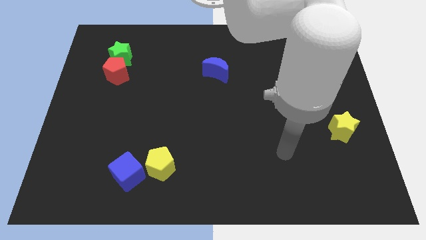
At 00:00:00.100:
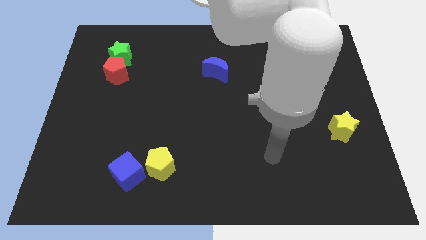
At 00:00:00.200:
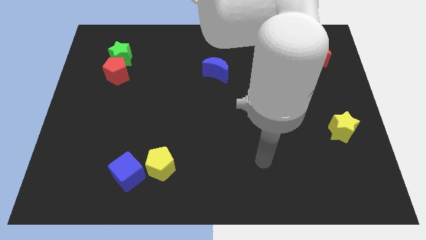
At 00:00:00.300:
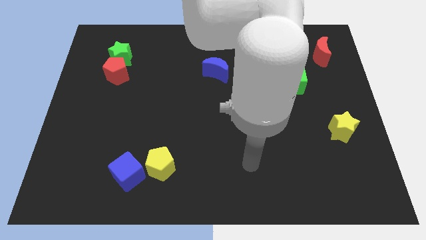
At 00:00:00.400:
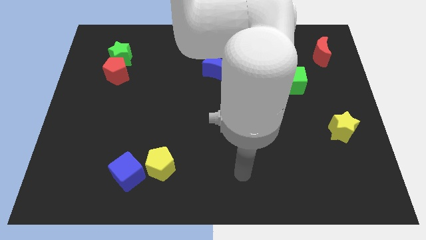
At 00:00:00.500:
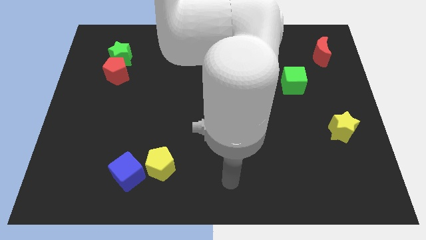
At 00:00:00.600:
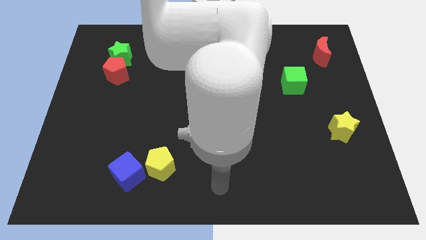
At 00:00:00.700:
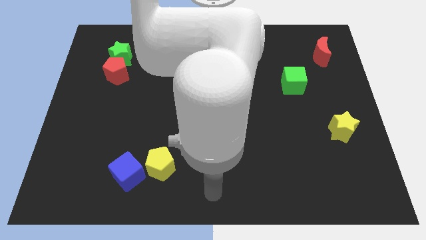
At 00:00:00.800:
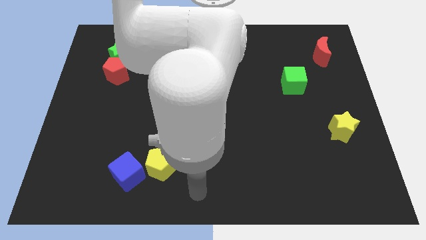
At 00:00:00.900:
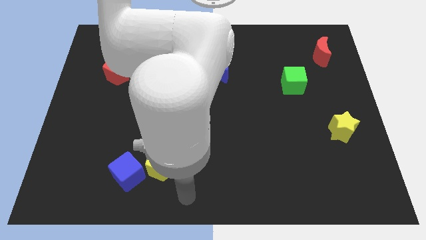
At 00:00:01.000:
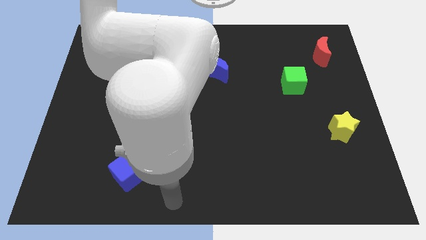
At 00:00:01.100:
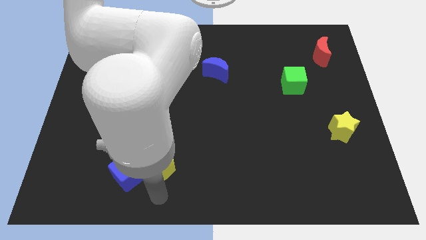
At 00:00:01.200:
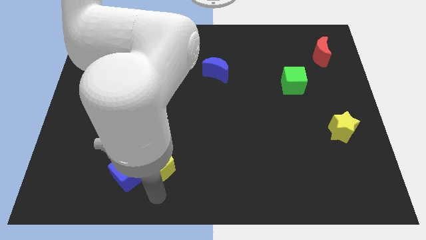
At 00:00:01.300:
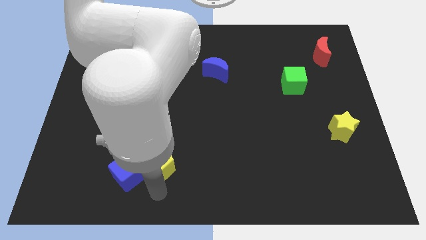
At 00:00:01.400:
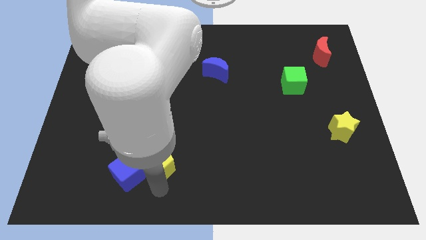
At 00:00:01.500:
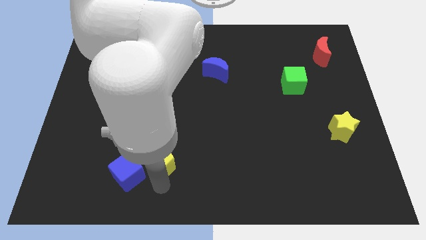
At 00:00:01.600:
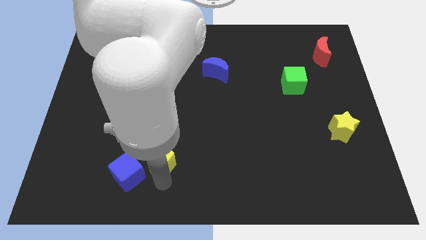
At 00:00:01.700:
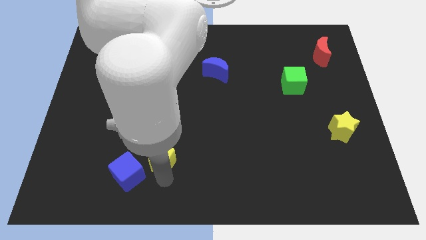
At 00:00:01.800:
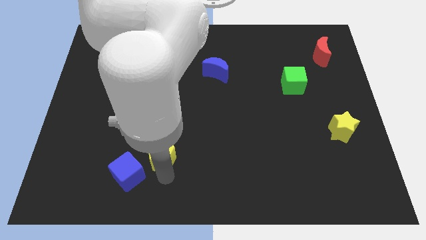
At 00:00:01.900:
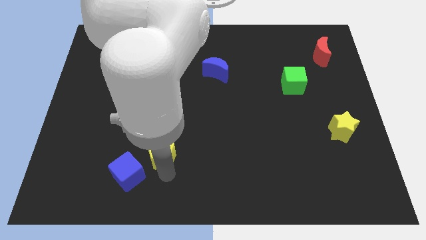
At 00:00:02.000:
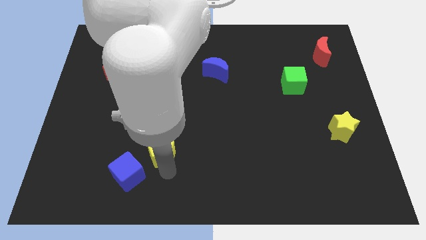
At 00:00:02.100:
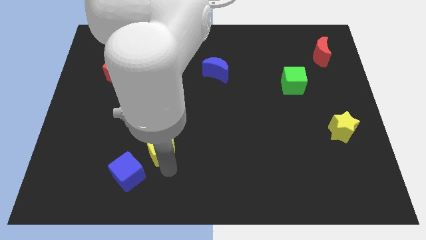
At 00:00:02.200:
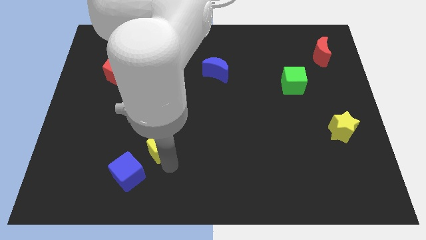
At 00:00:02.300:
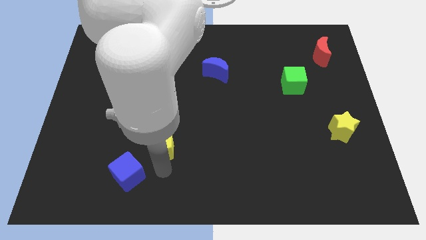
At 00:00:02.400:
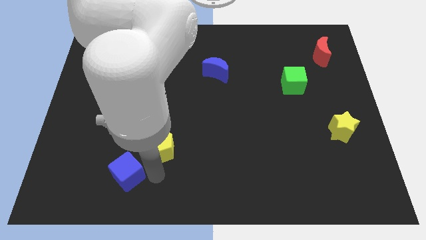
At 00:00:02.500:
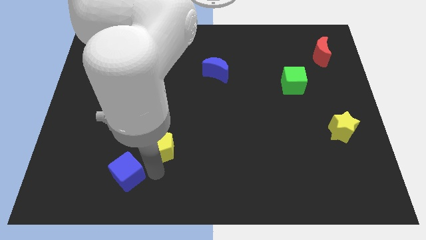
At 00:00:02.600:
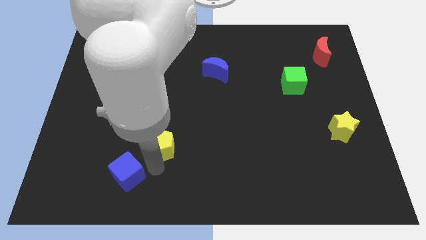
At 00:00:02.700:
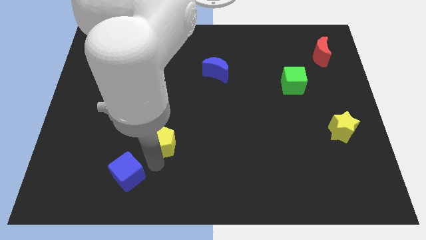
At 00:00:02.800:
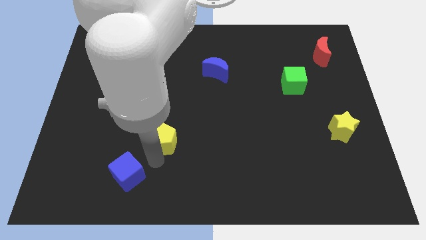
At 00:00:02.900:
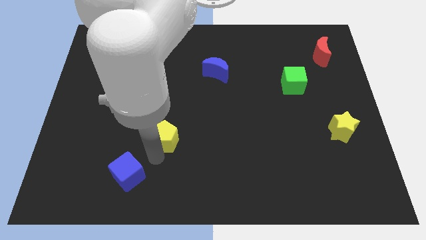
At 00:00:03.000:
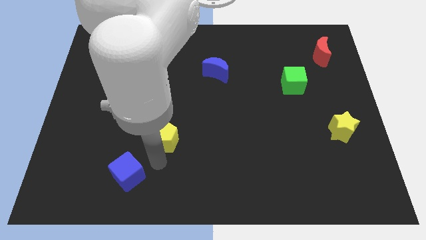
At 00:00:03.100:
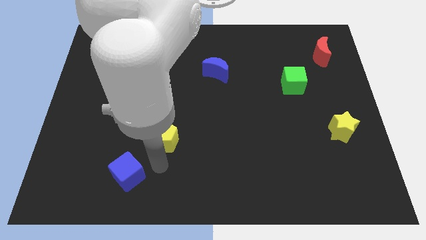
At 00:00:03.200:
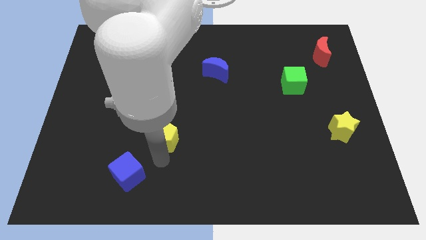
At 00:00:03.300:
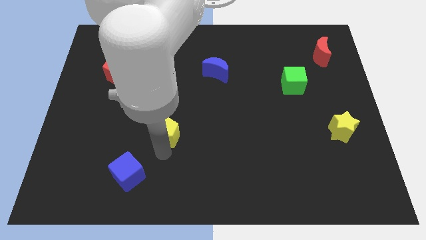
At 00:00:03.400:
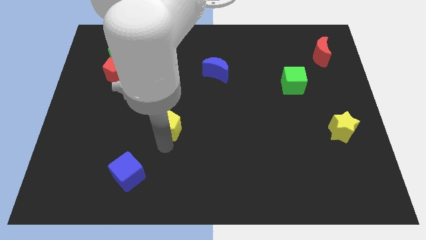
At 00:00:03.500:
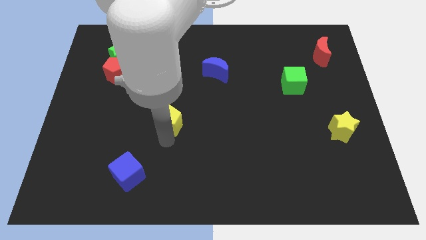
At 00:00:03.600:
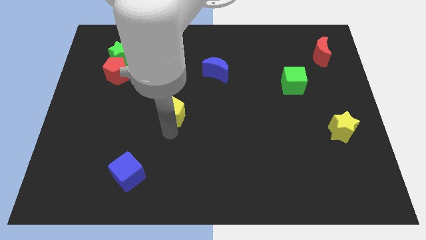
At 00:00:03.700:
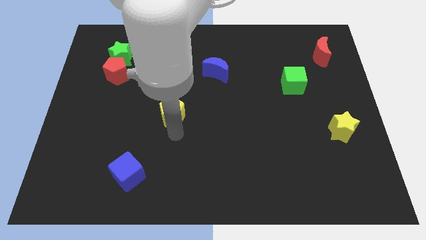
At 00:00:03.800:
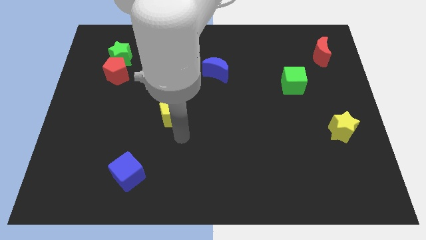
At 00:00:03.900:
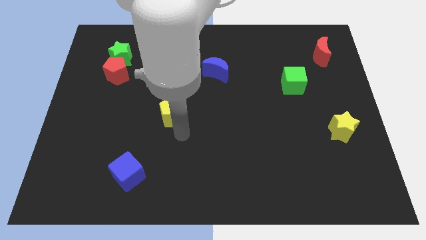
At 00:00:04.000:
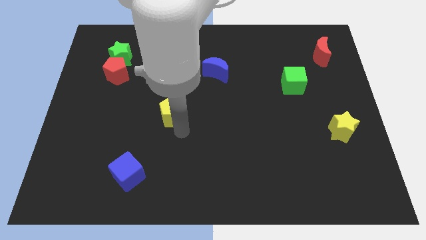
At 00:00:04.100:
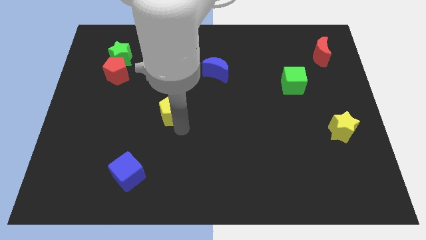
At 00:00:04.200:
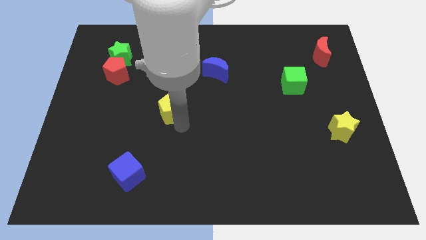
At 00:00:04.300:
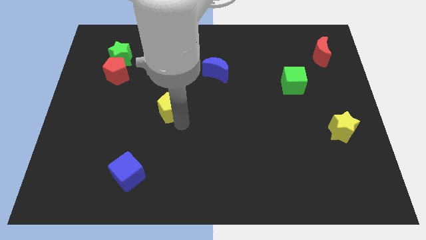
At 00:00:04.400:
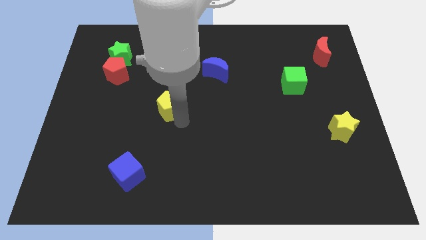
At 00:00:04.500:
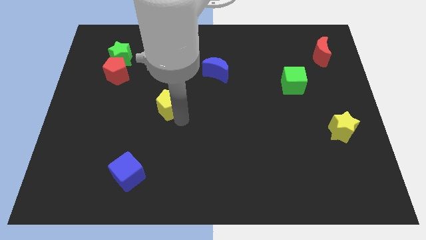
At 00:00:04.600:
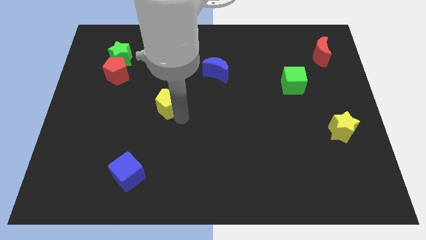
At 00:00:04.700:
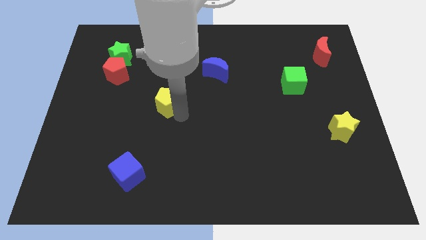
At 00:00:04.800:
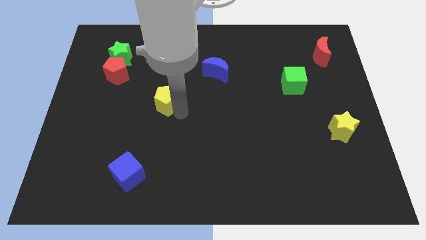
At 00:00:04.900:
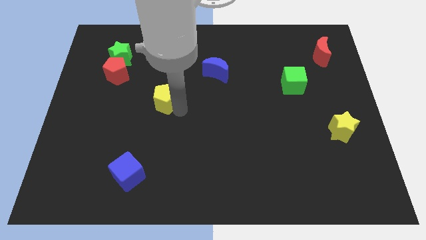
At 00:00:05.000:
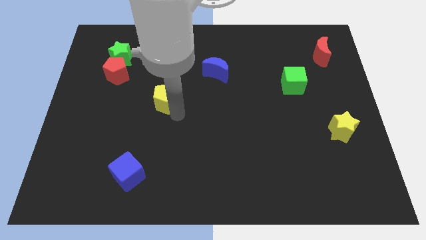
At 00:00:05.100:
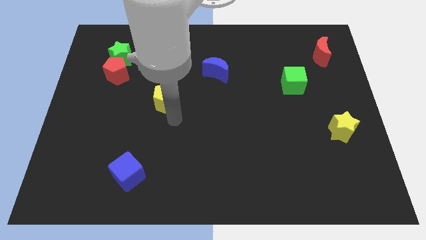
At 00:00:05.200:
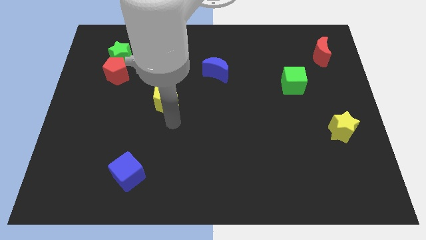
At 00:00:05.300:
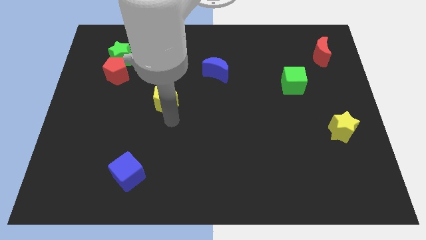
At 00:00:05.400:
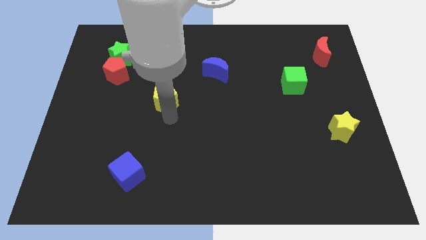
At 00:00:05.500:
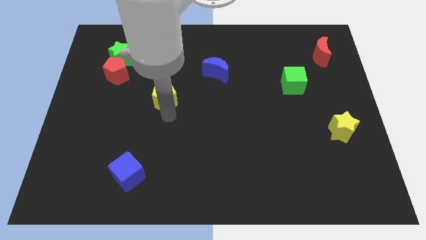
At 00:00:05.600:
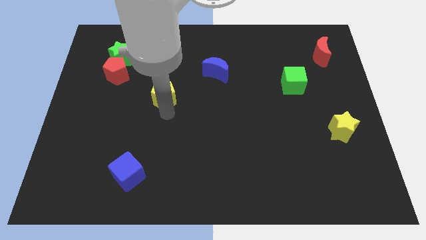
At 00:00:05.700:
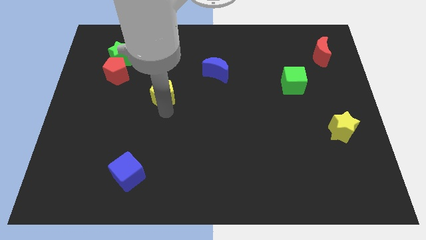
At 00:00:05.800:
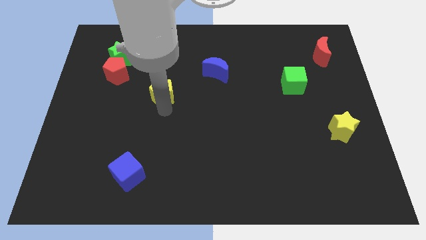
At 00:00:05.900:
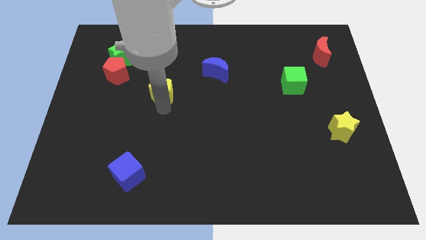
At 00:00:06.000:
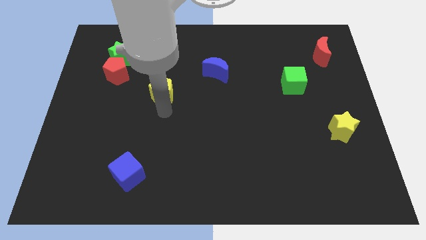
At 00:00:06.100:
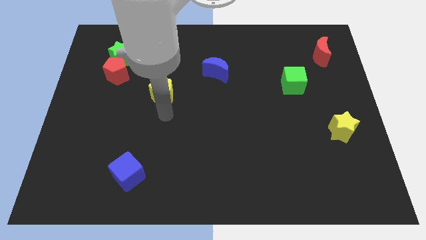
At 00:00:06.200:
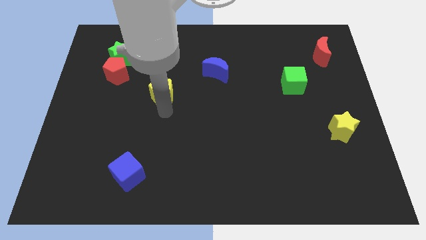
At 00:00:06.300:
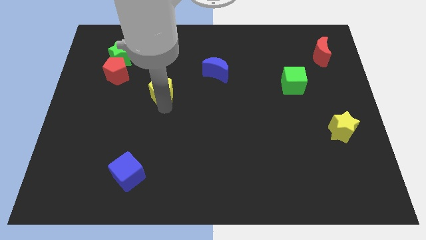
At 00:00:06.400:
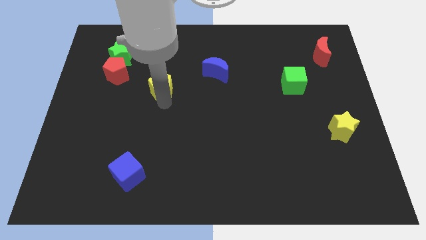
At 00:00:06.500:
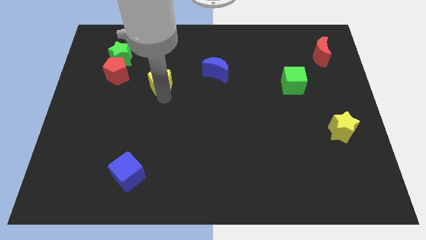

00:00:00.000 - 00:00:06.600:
put the yellow pentagon to the right side of the red pentagon
